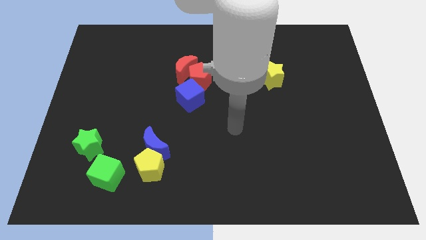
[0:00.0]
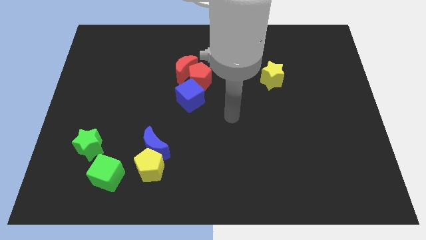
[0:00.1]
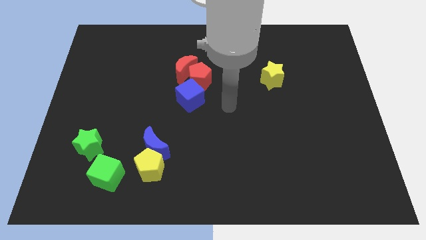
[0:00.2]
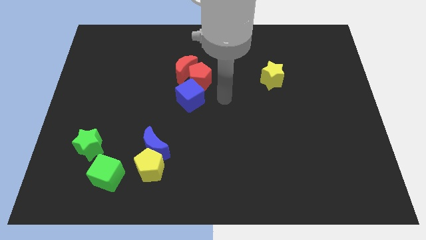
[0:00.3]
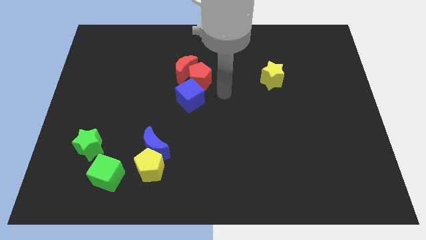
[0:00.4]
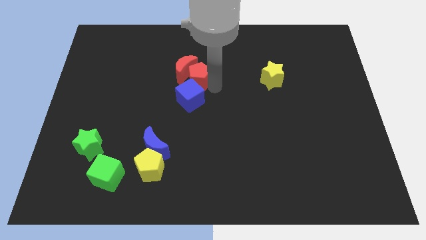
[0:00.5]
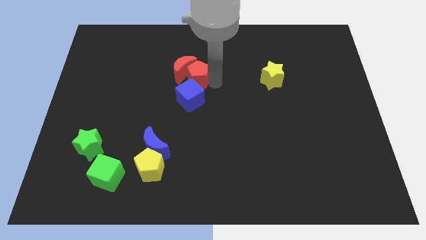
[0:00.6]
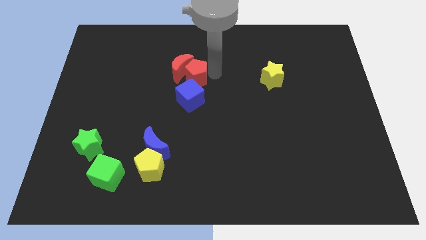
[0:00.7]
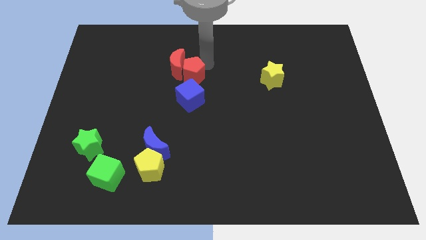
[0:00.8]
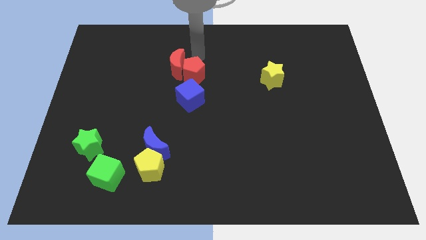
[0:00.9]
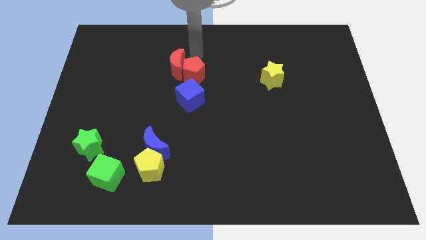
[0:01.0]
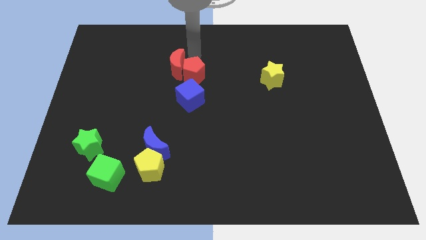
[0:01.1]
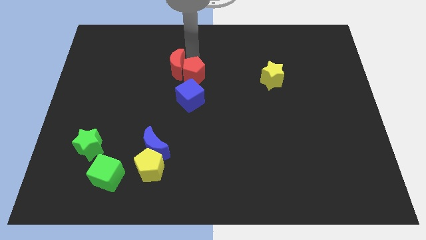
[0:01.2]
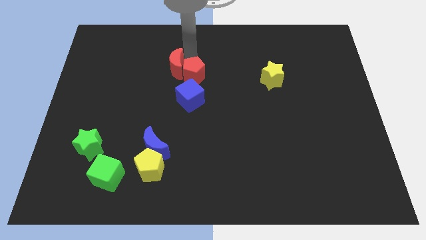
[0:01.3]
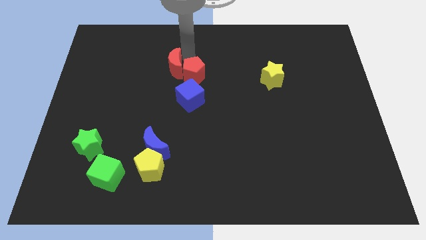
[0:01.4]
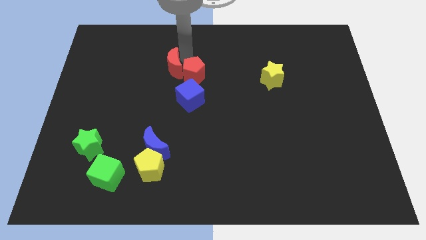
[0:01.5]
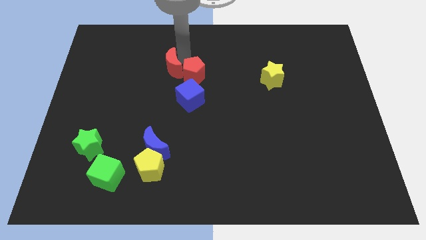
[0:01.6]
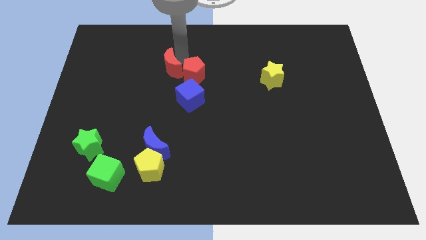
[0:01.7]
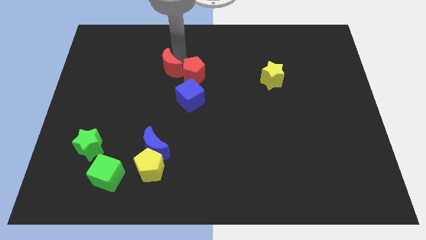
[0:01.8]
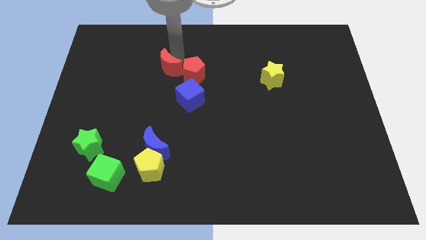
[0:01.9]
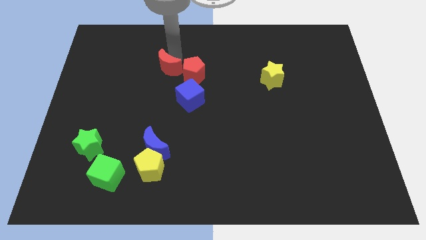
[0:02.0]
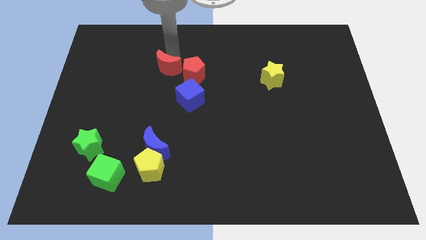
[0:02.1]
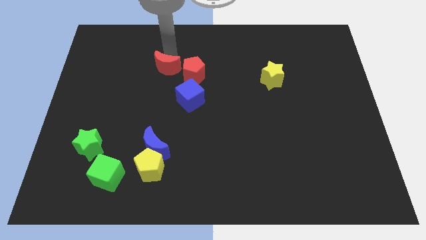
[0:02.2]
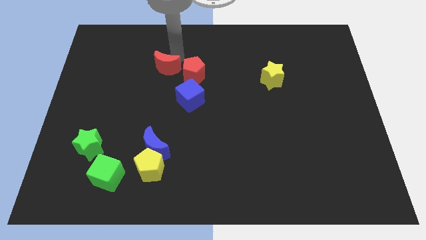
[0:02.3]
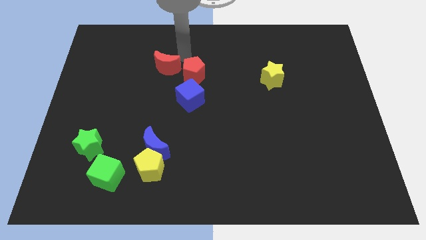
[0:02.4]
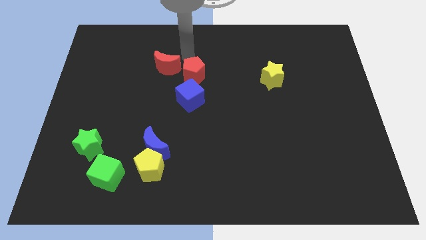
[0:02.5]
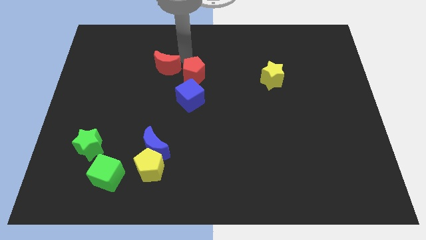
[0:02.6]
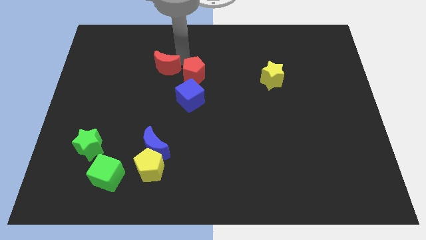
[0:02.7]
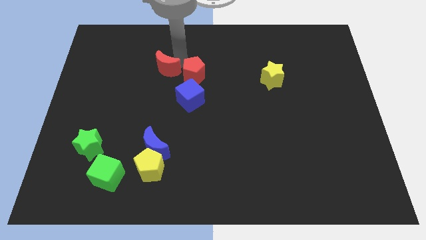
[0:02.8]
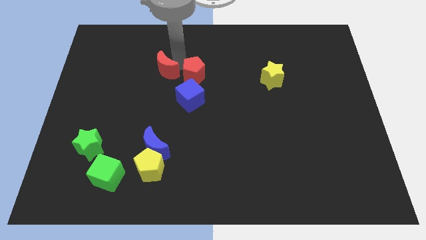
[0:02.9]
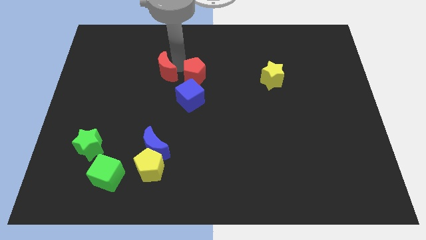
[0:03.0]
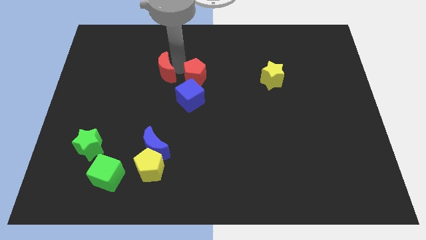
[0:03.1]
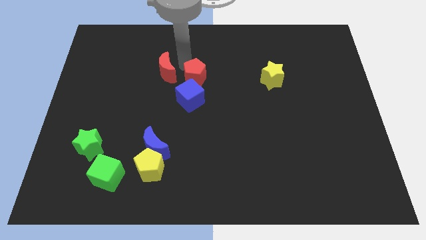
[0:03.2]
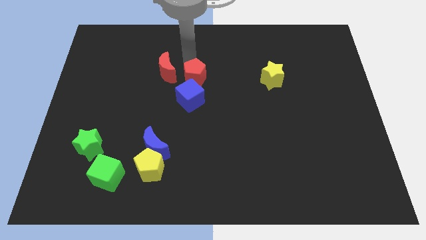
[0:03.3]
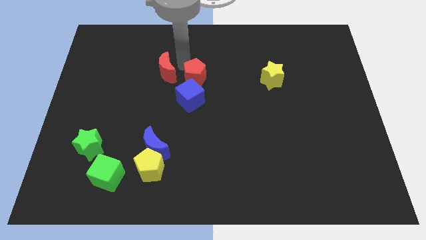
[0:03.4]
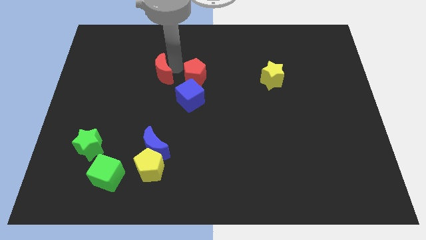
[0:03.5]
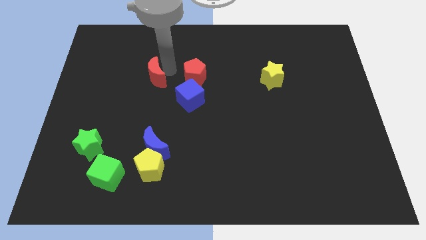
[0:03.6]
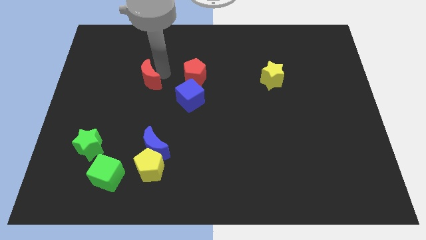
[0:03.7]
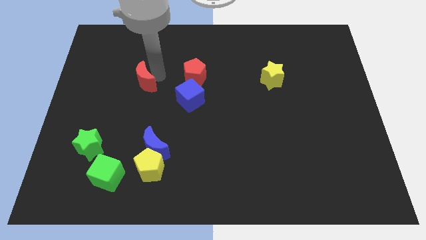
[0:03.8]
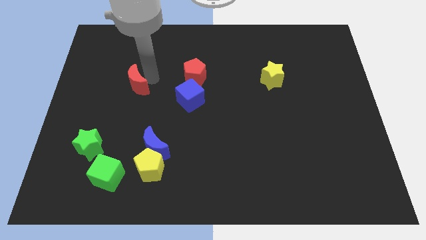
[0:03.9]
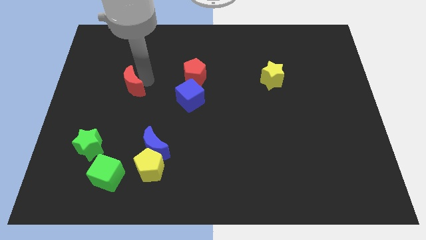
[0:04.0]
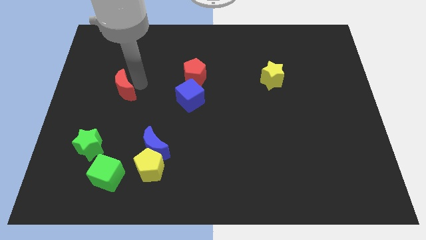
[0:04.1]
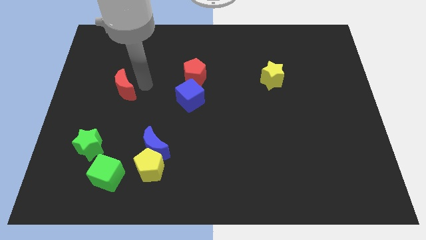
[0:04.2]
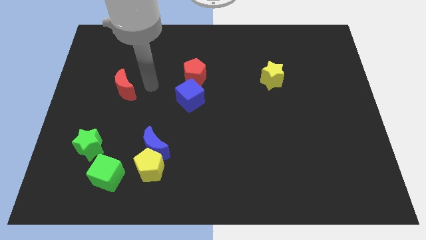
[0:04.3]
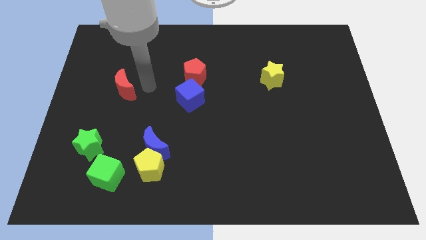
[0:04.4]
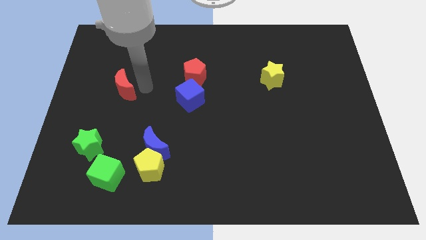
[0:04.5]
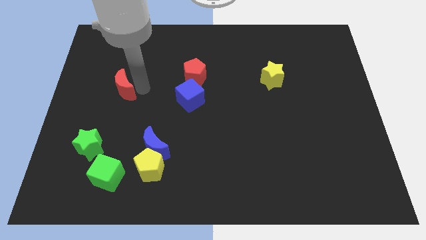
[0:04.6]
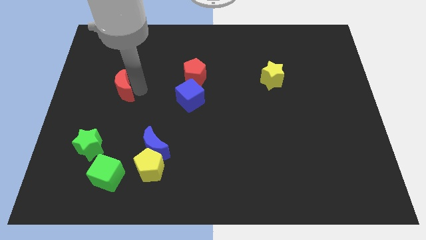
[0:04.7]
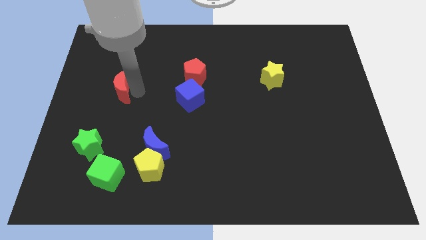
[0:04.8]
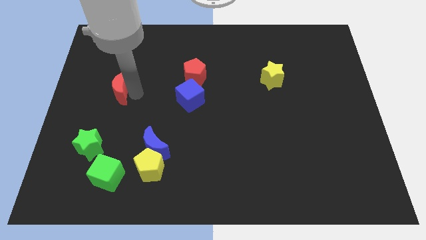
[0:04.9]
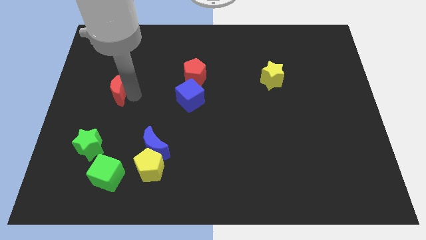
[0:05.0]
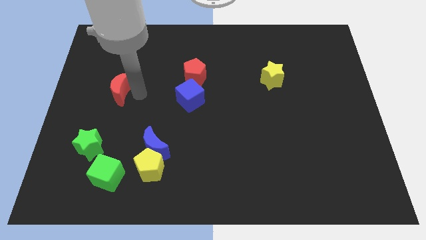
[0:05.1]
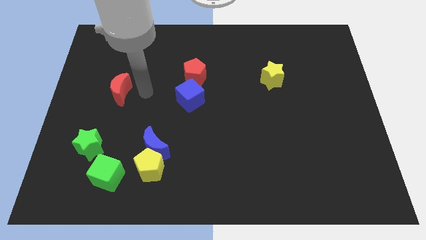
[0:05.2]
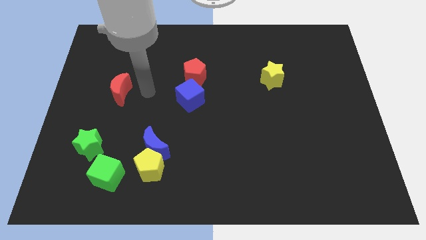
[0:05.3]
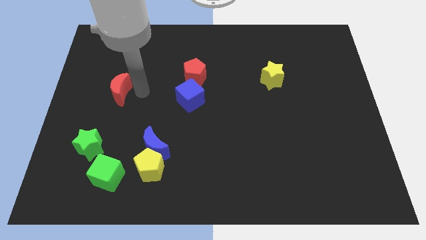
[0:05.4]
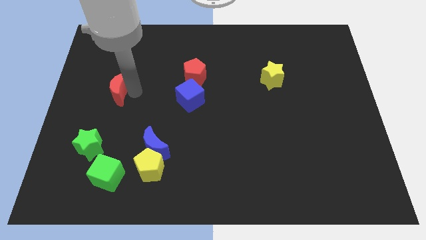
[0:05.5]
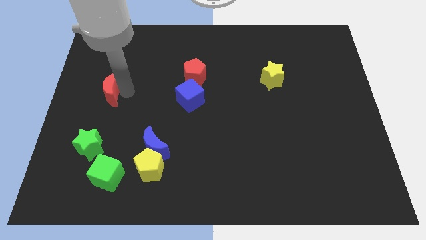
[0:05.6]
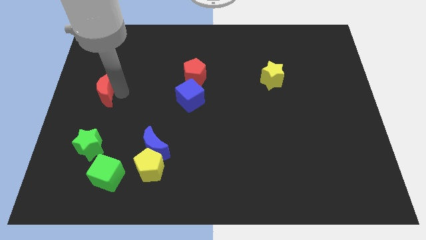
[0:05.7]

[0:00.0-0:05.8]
push the red moon to the left side of the board

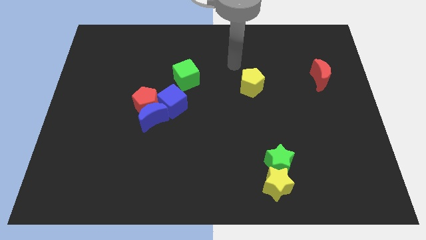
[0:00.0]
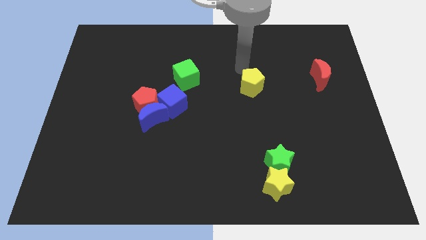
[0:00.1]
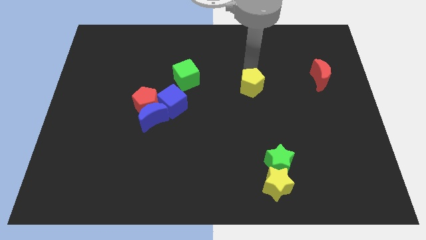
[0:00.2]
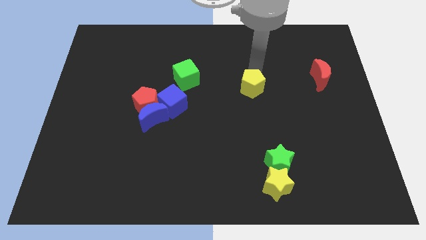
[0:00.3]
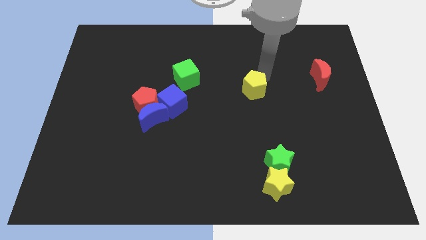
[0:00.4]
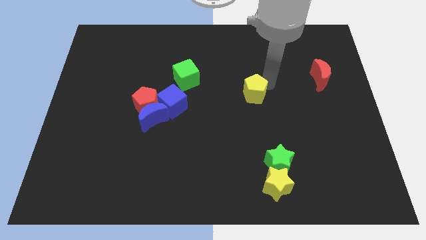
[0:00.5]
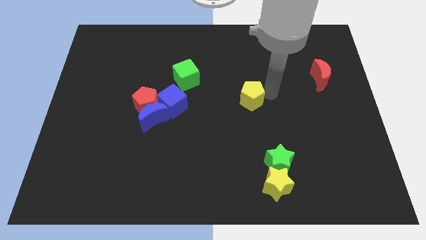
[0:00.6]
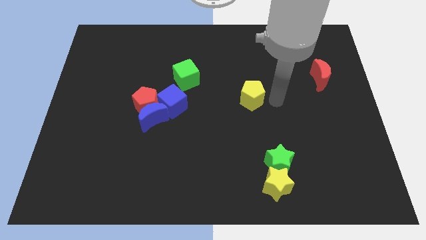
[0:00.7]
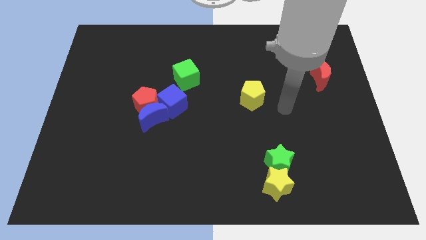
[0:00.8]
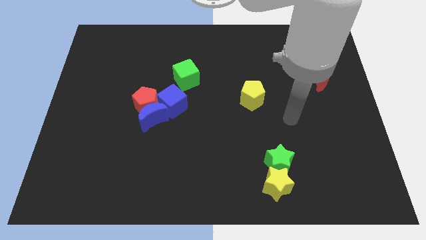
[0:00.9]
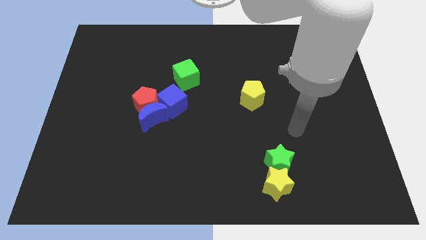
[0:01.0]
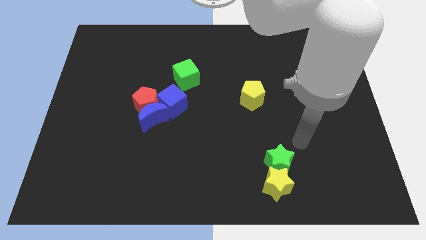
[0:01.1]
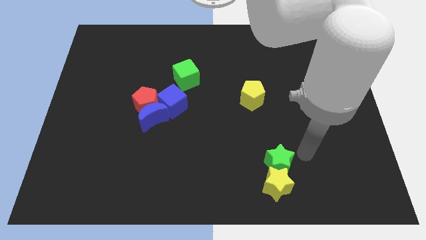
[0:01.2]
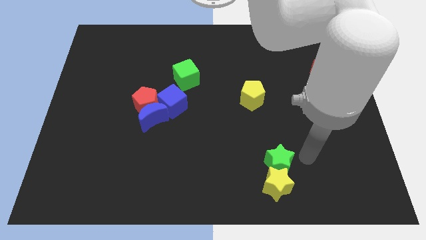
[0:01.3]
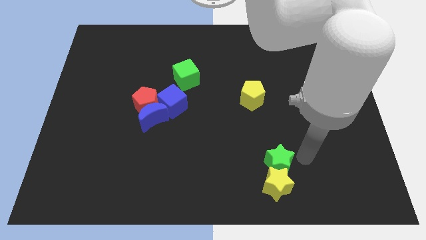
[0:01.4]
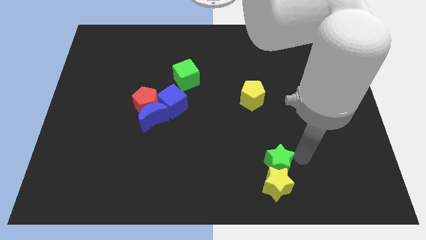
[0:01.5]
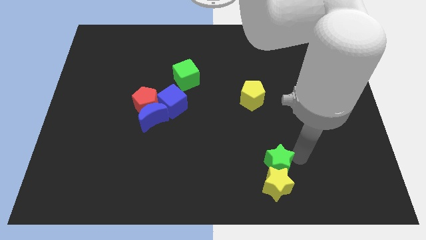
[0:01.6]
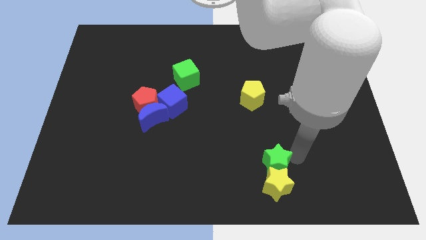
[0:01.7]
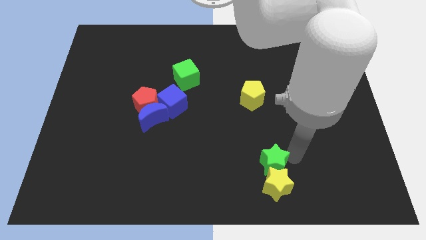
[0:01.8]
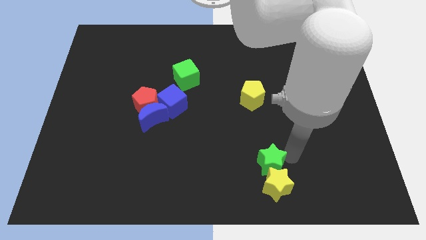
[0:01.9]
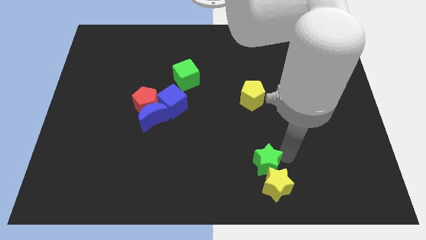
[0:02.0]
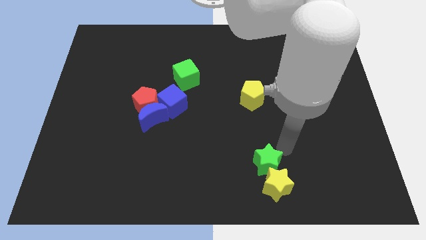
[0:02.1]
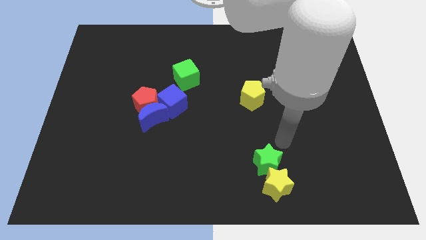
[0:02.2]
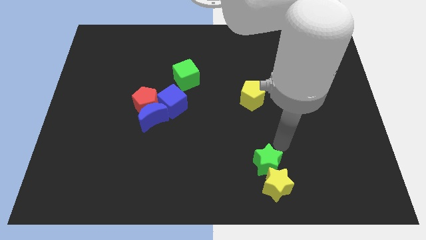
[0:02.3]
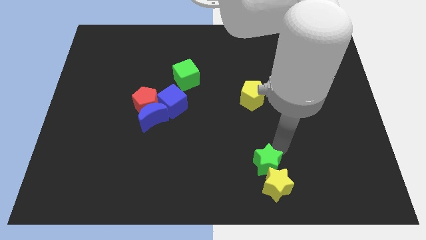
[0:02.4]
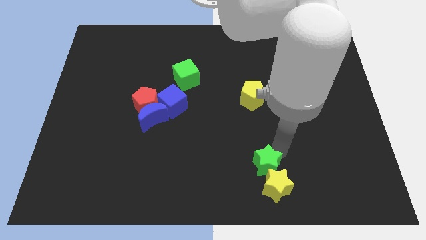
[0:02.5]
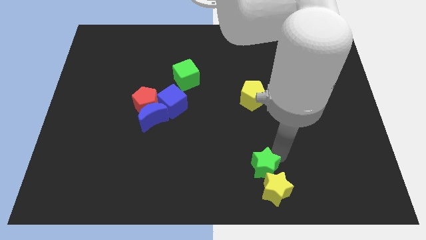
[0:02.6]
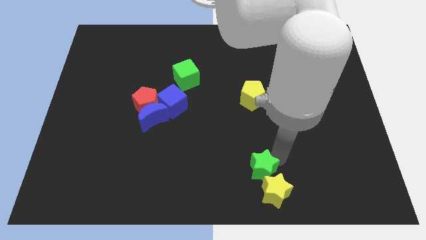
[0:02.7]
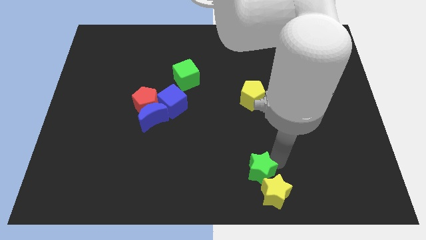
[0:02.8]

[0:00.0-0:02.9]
push the green star to the bottom
